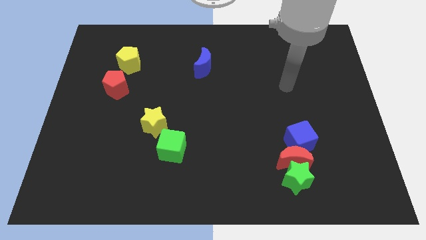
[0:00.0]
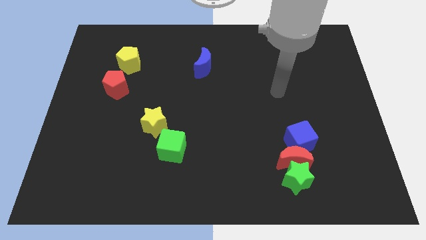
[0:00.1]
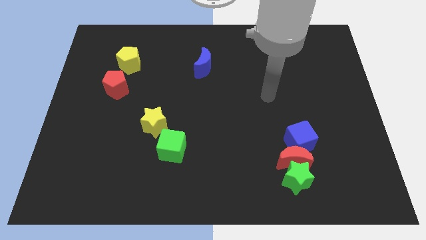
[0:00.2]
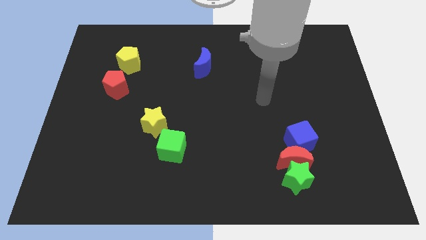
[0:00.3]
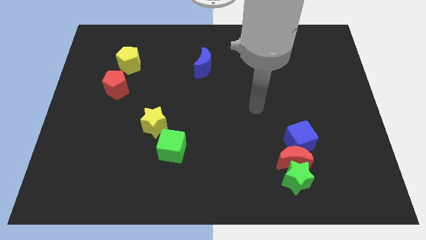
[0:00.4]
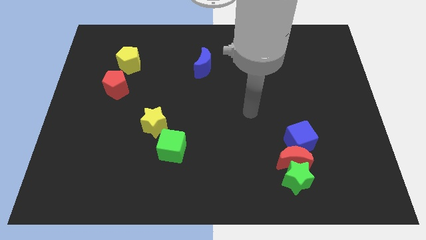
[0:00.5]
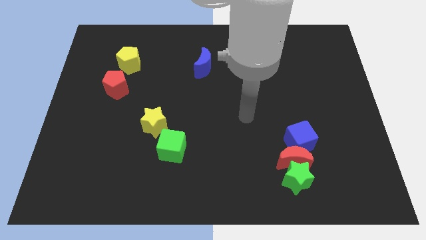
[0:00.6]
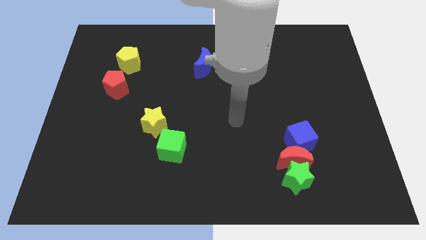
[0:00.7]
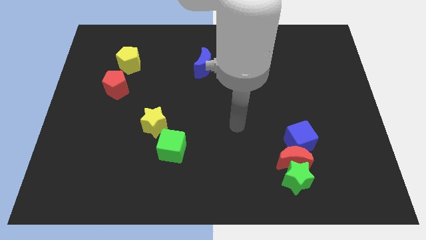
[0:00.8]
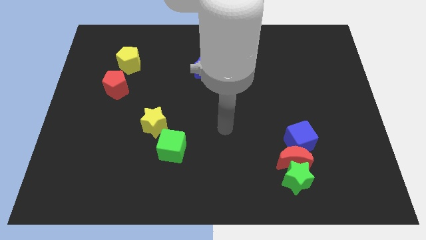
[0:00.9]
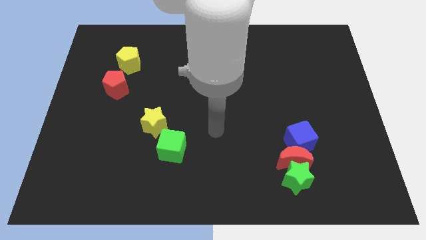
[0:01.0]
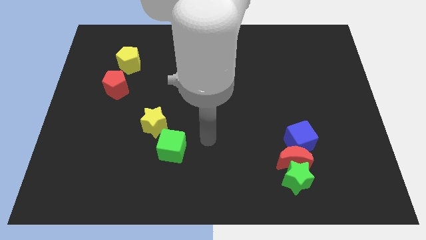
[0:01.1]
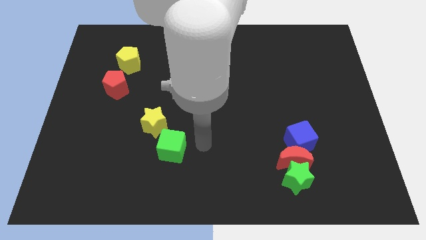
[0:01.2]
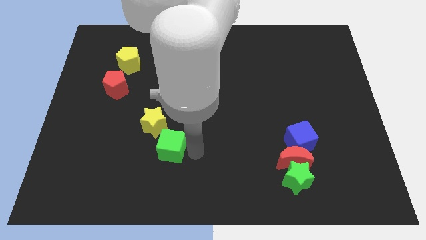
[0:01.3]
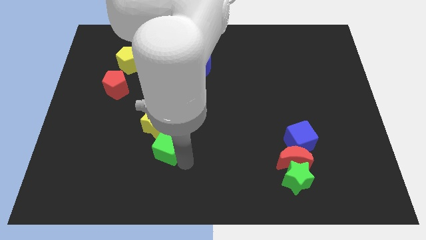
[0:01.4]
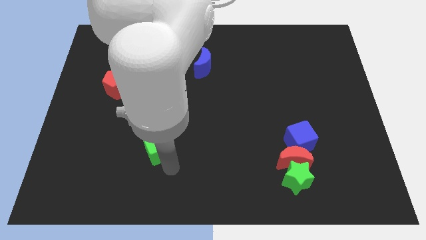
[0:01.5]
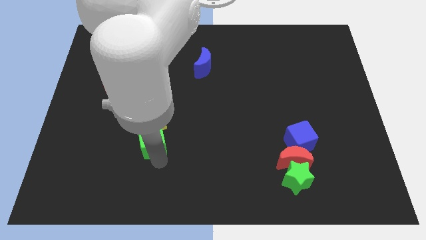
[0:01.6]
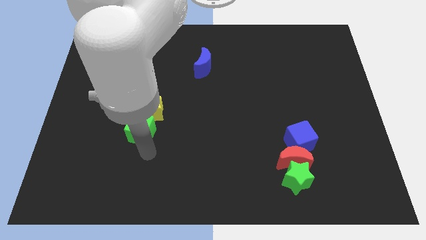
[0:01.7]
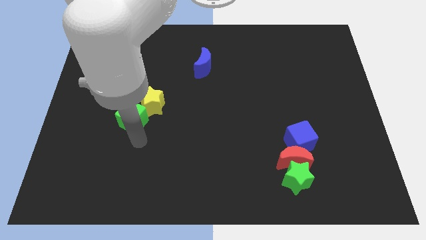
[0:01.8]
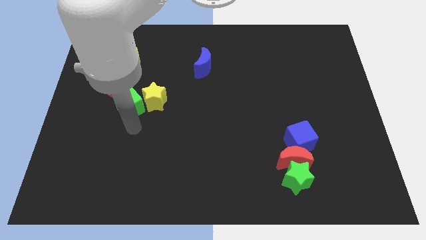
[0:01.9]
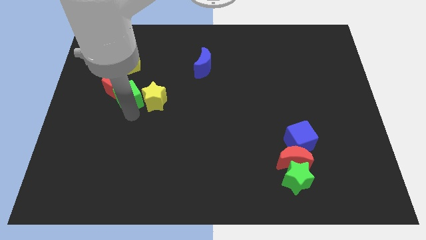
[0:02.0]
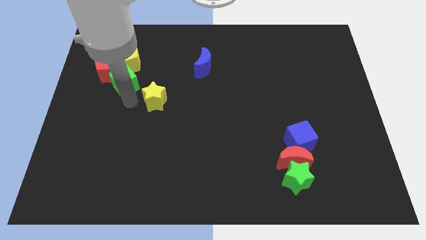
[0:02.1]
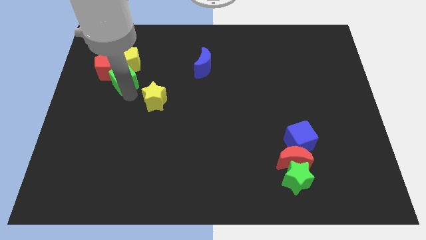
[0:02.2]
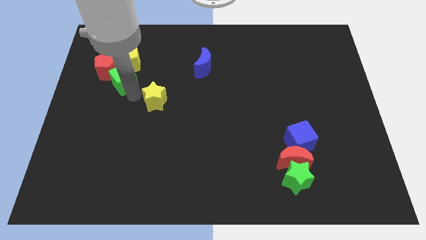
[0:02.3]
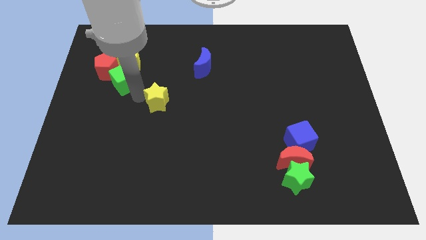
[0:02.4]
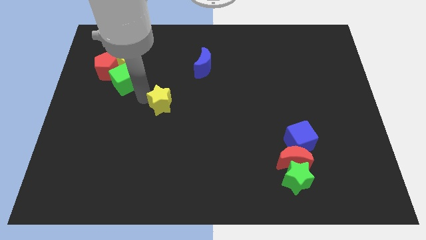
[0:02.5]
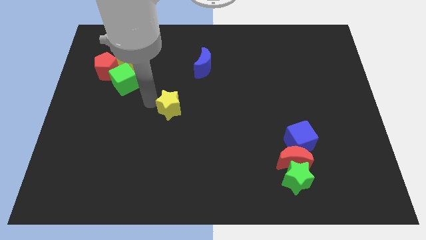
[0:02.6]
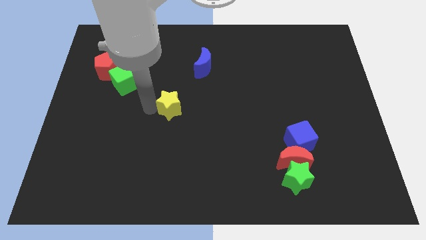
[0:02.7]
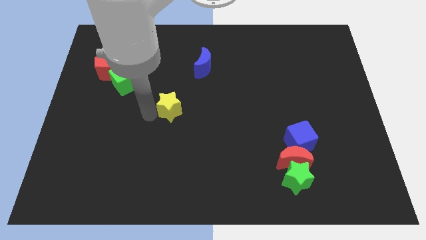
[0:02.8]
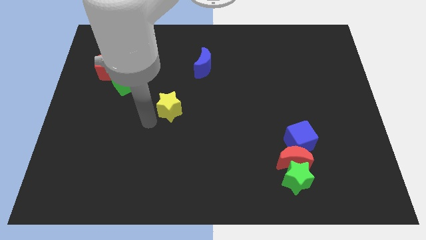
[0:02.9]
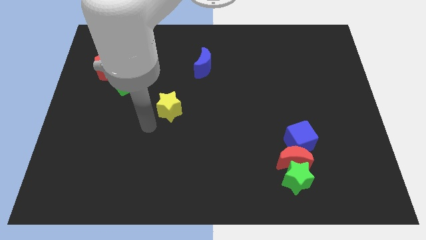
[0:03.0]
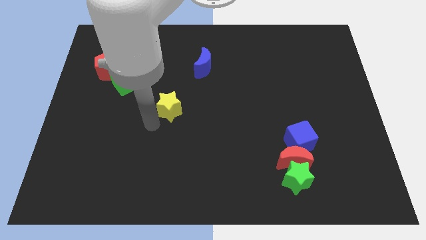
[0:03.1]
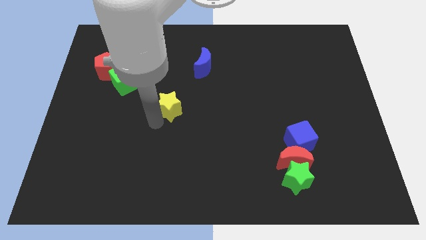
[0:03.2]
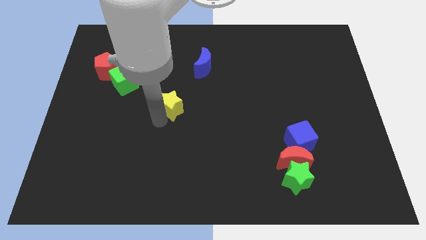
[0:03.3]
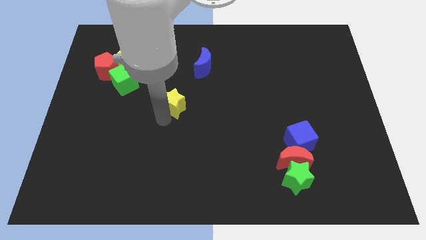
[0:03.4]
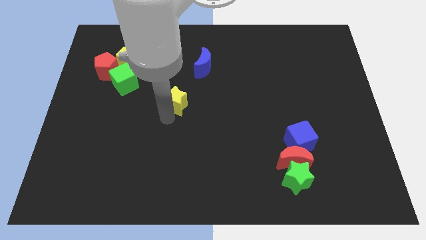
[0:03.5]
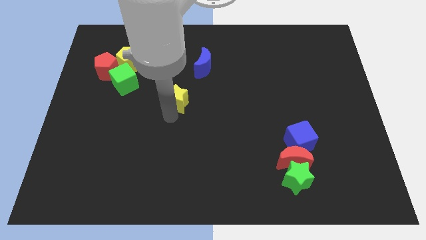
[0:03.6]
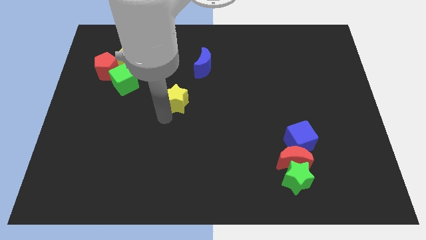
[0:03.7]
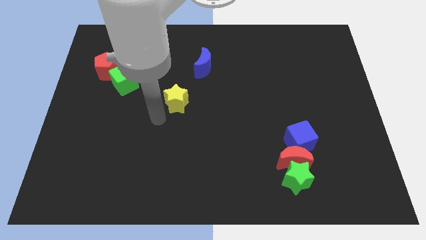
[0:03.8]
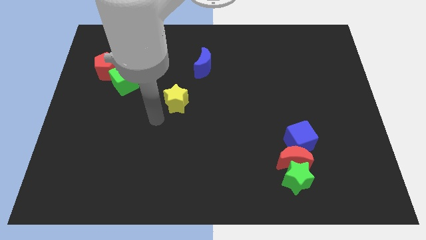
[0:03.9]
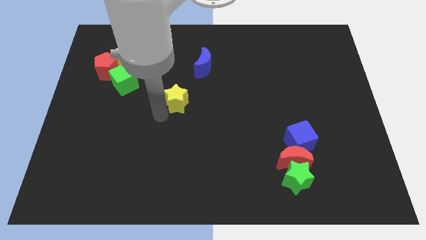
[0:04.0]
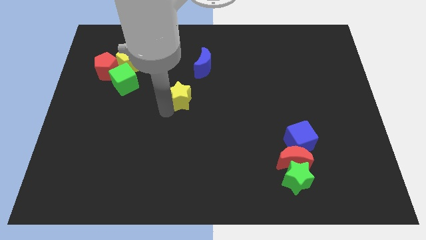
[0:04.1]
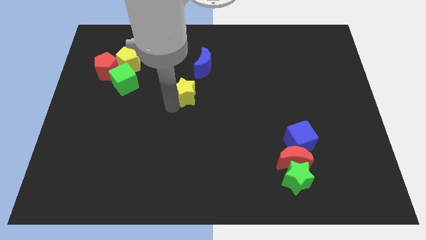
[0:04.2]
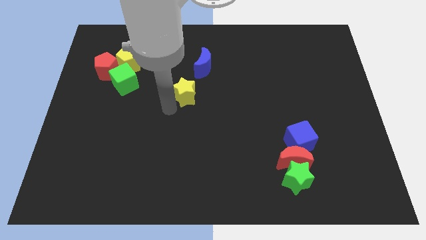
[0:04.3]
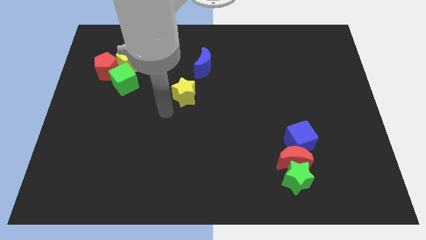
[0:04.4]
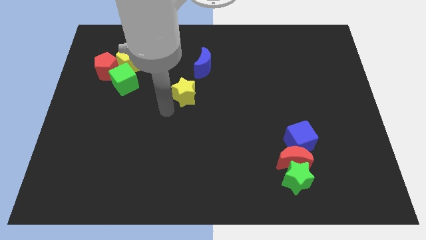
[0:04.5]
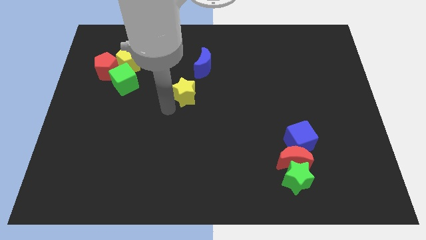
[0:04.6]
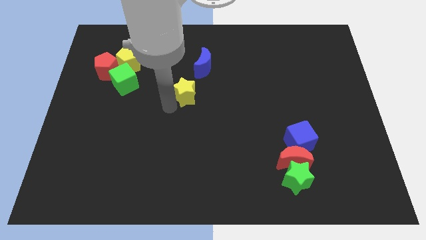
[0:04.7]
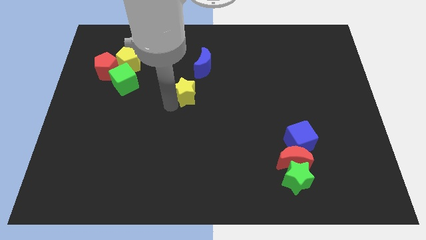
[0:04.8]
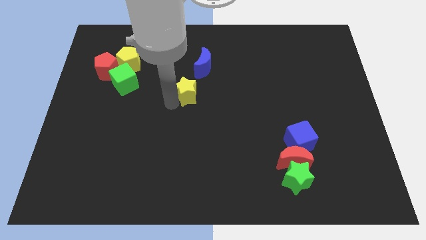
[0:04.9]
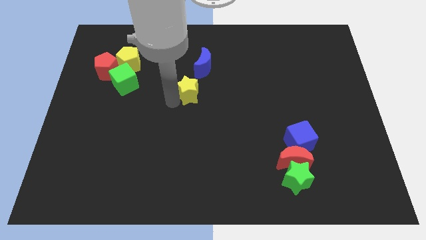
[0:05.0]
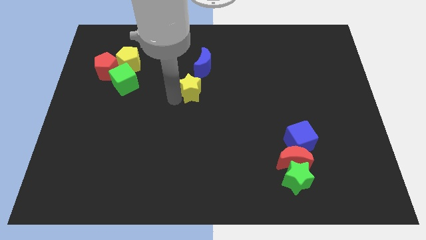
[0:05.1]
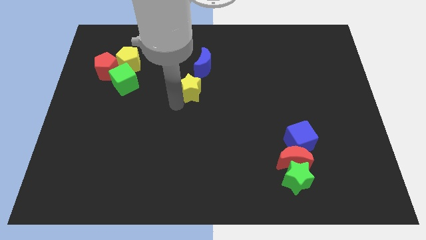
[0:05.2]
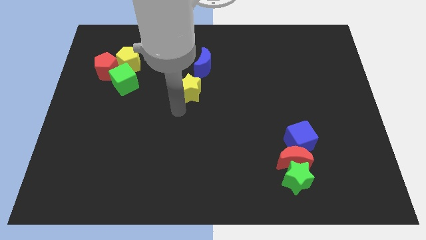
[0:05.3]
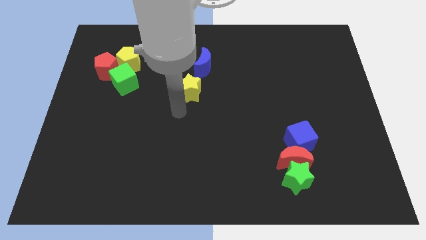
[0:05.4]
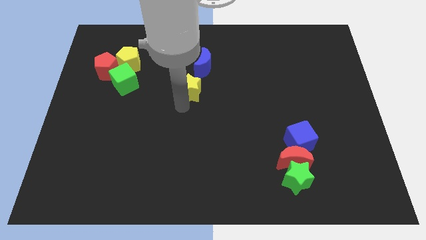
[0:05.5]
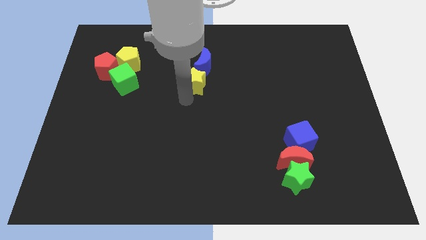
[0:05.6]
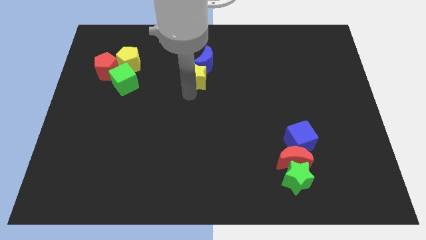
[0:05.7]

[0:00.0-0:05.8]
slide the yellow star next to the blue moon

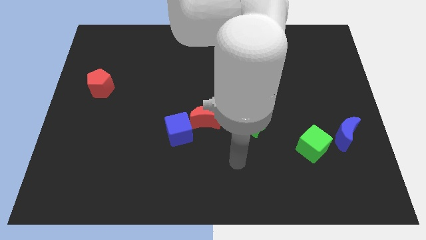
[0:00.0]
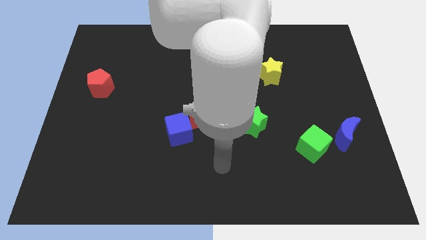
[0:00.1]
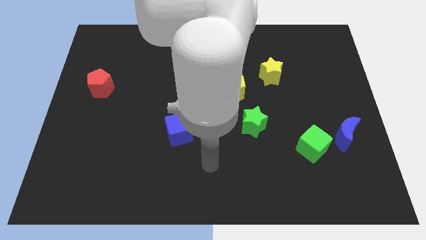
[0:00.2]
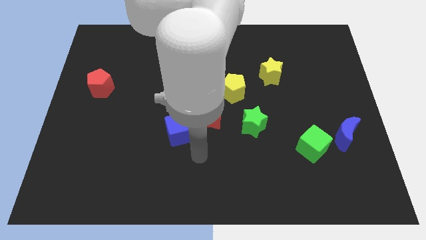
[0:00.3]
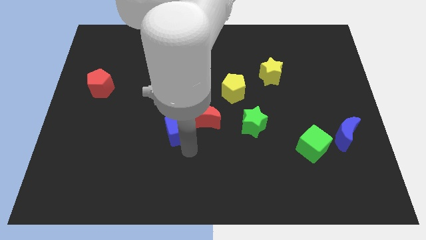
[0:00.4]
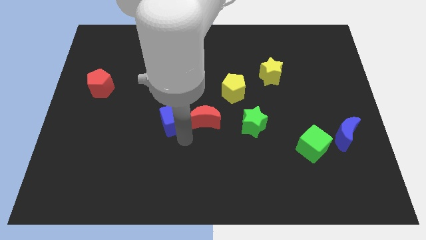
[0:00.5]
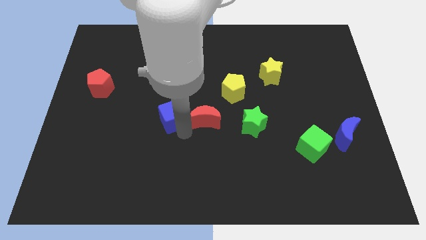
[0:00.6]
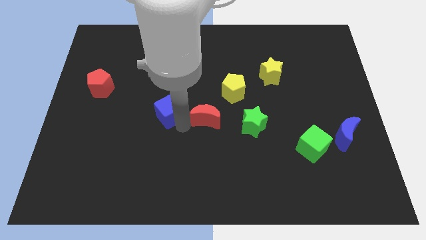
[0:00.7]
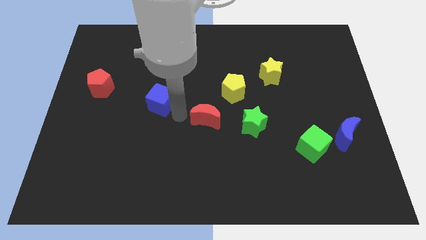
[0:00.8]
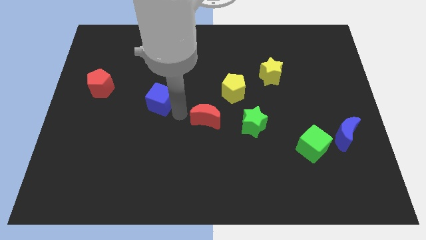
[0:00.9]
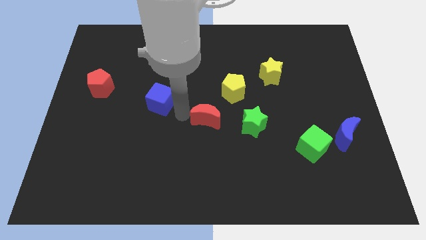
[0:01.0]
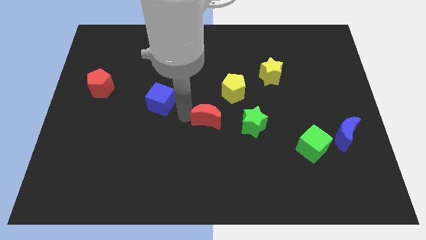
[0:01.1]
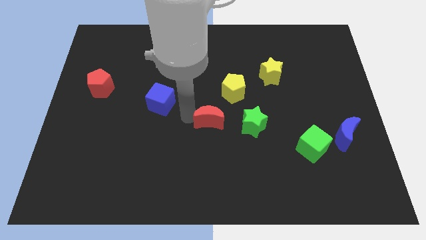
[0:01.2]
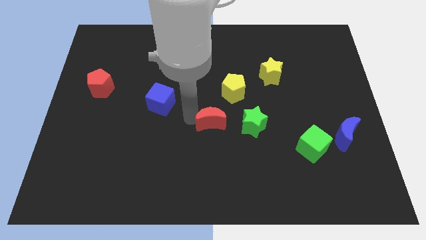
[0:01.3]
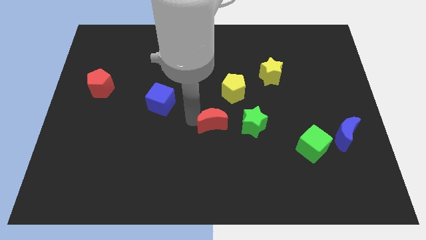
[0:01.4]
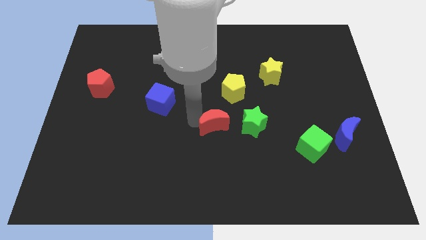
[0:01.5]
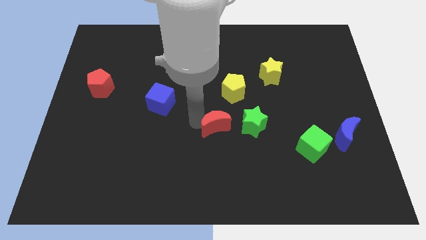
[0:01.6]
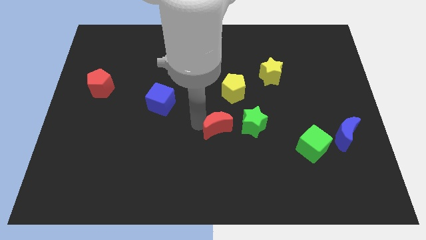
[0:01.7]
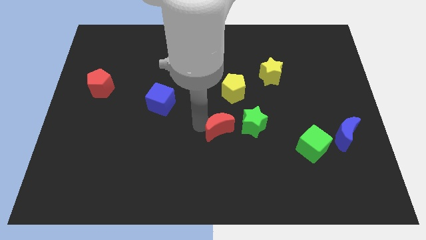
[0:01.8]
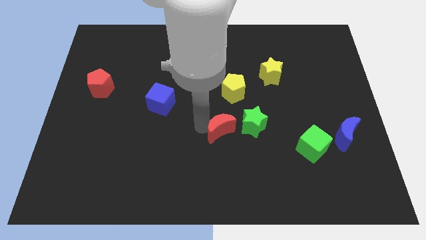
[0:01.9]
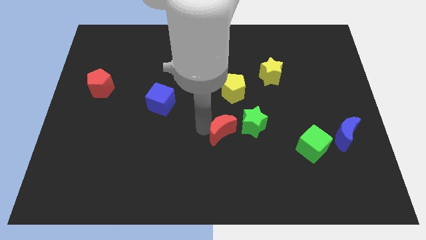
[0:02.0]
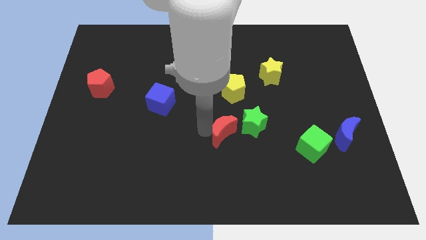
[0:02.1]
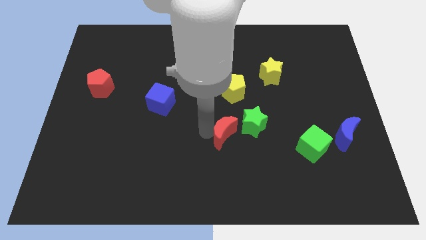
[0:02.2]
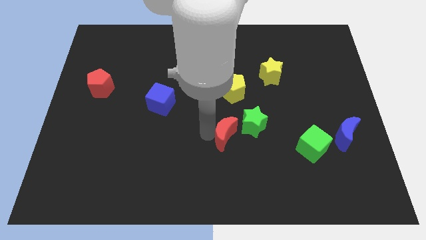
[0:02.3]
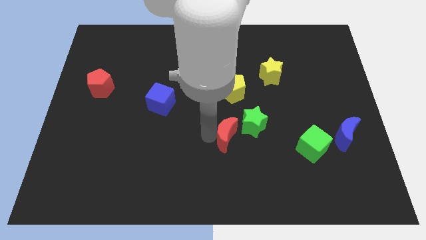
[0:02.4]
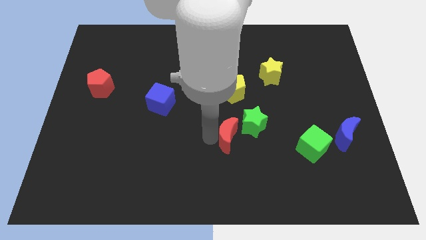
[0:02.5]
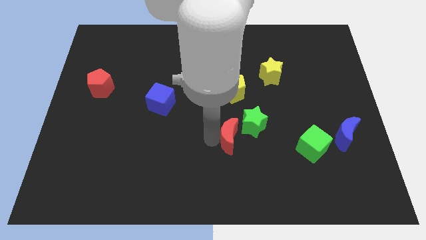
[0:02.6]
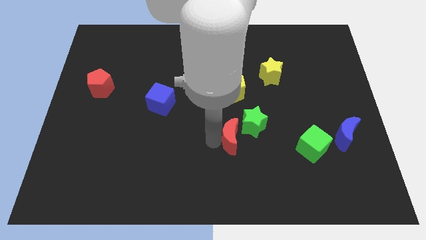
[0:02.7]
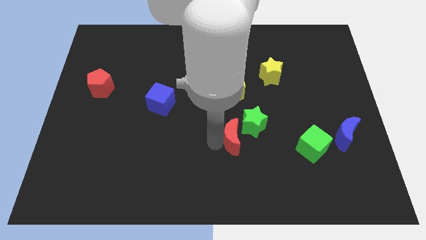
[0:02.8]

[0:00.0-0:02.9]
push the red moon towards the green star
